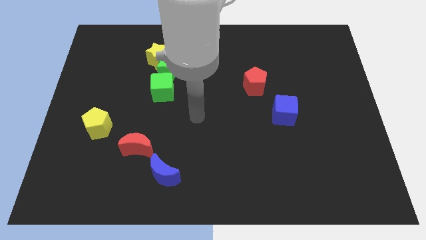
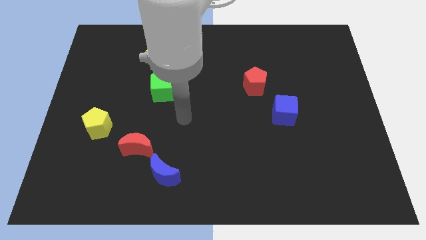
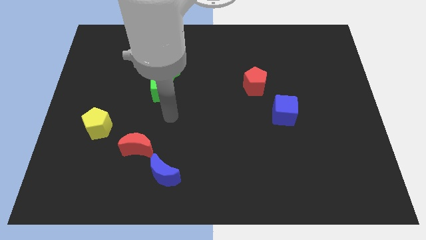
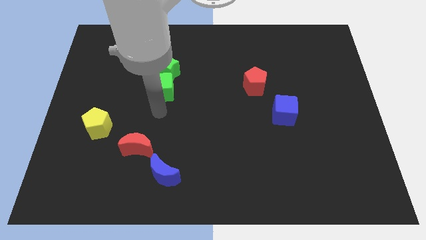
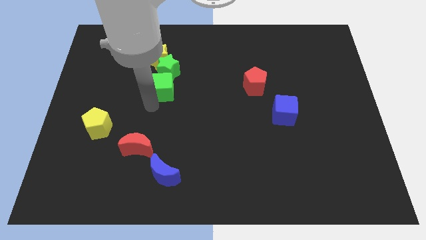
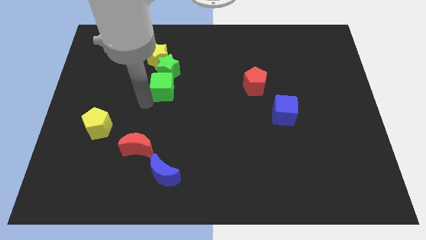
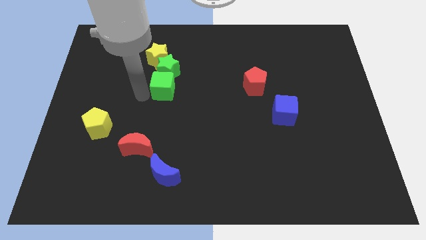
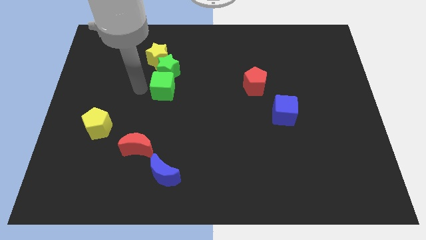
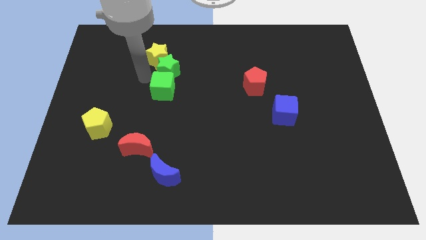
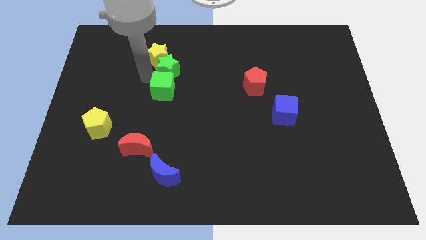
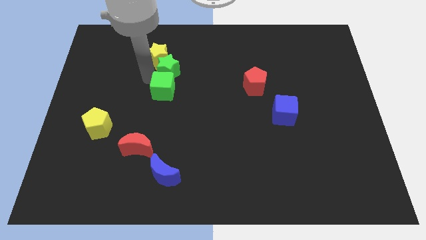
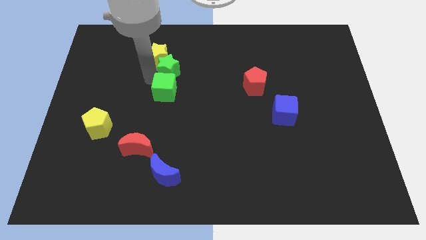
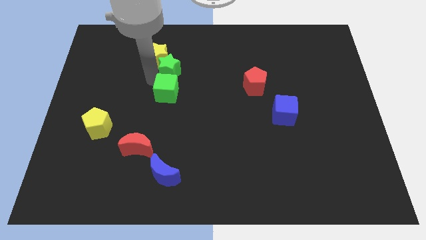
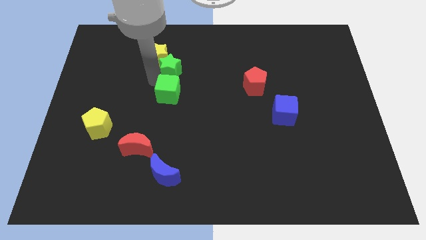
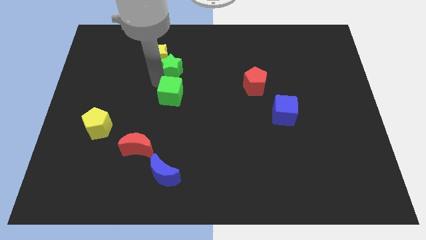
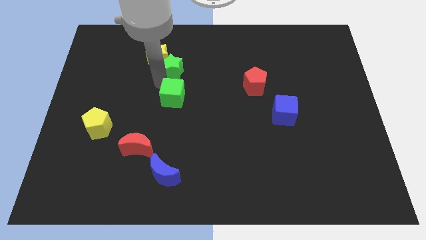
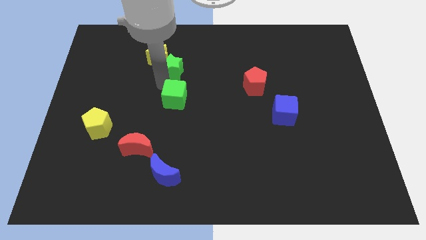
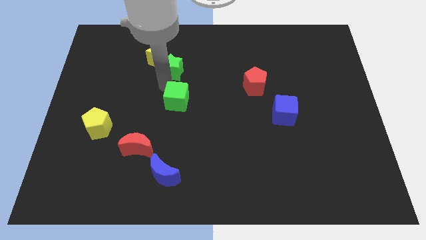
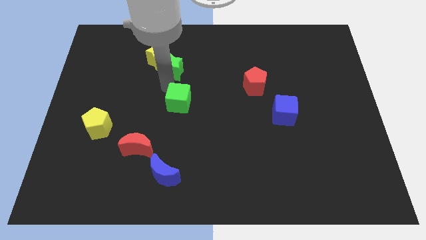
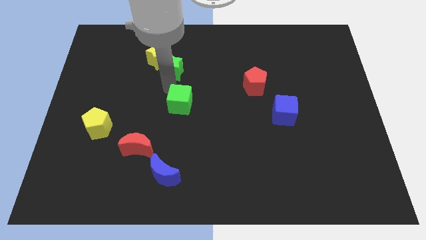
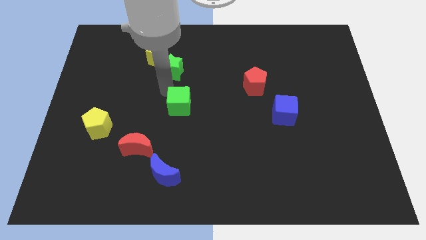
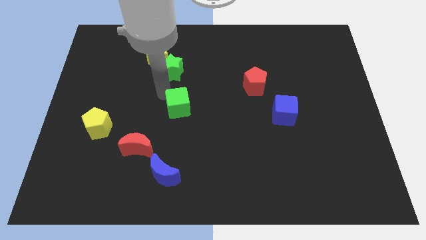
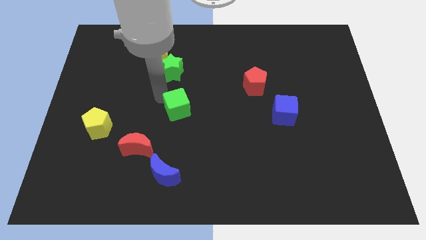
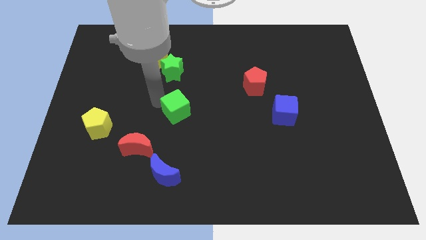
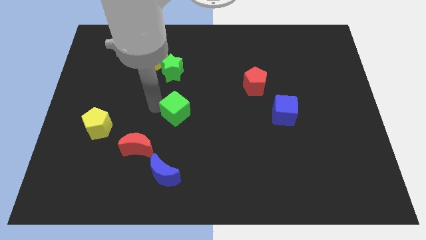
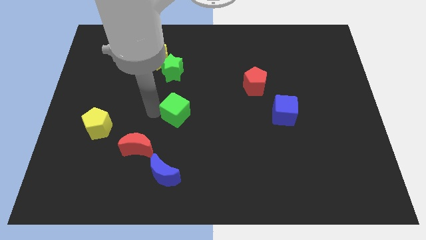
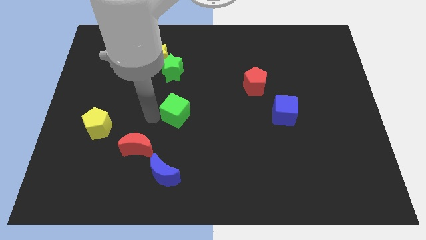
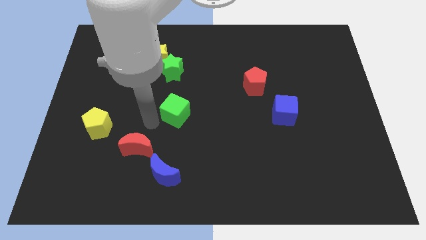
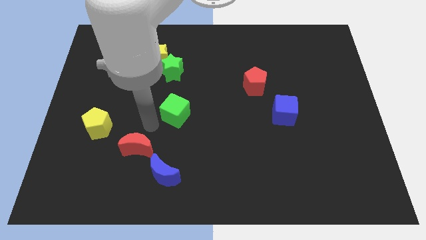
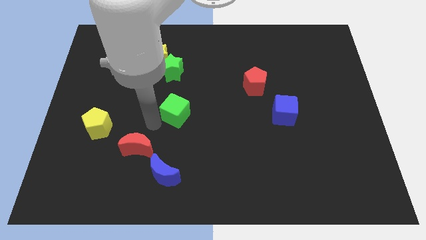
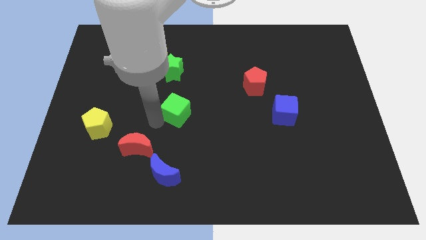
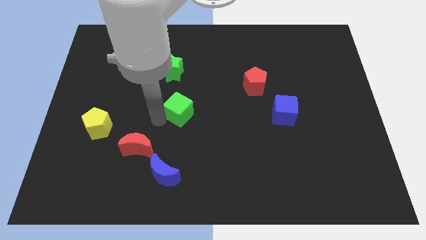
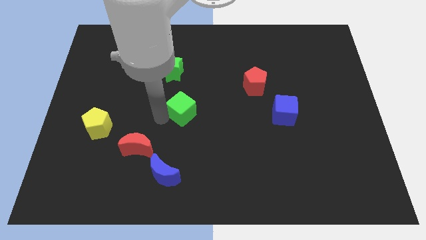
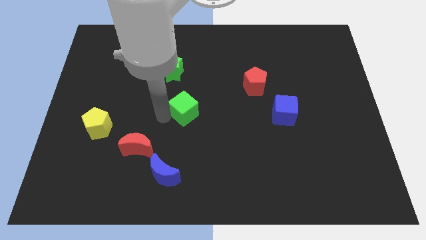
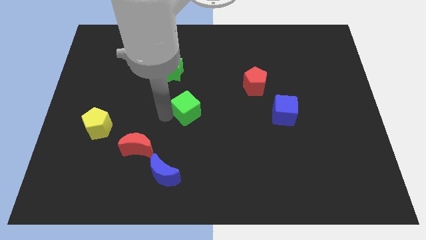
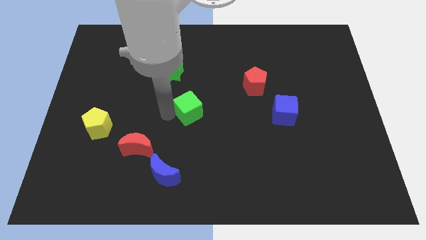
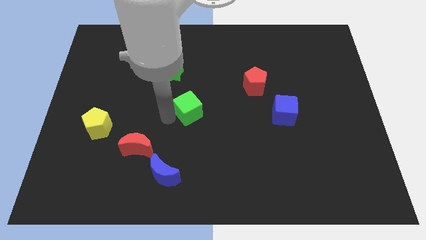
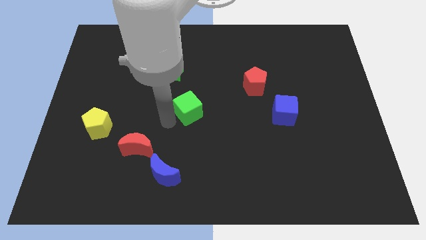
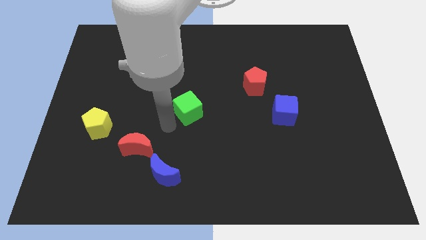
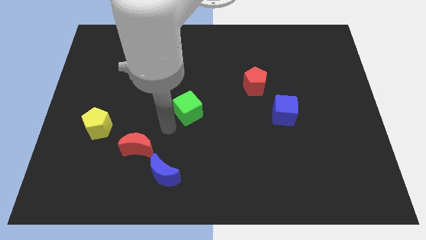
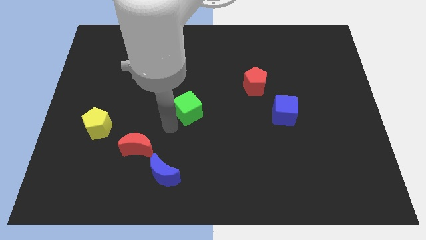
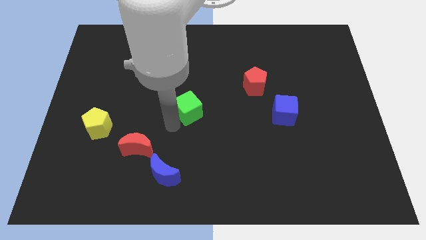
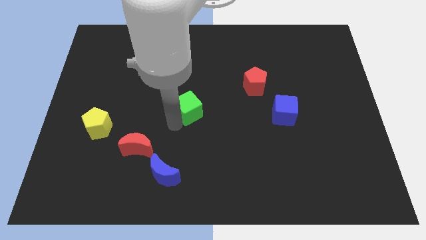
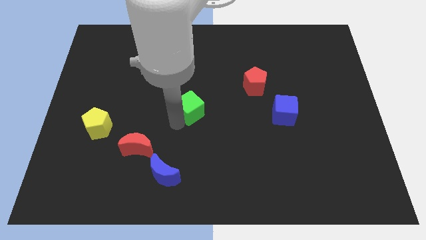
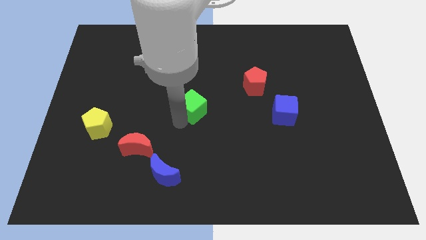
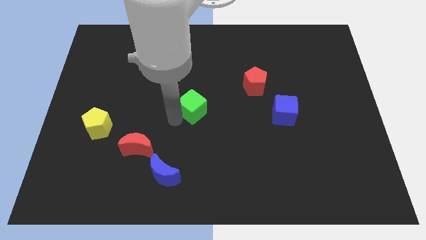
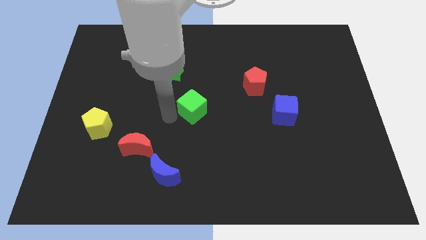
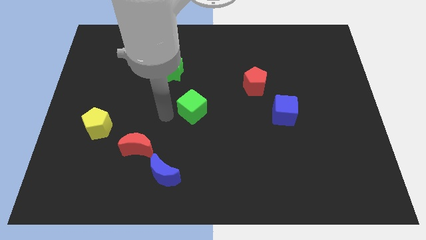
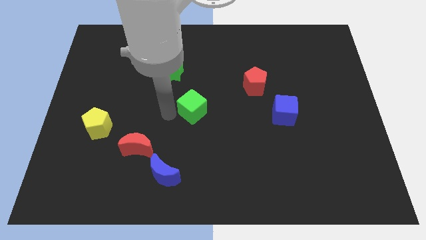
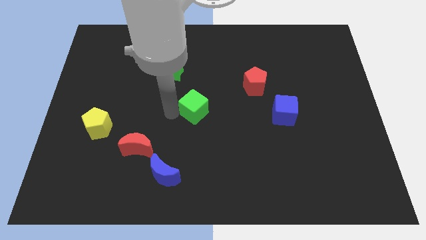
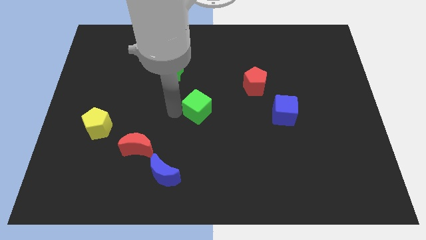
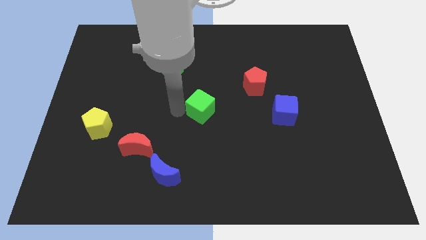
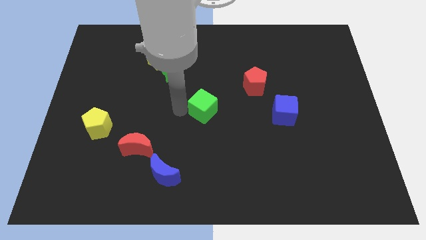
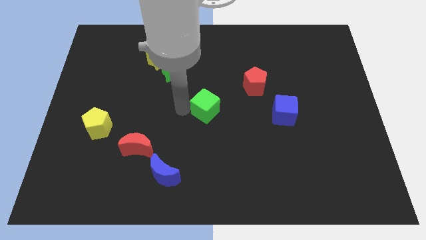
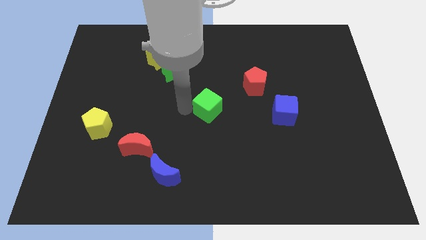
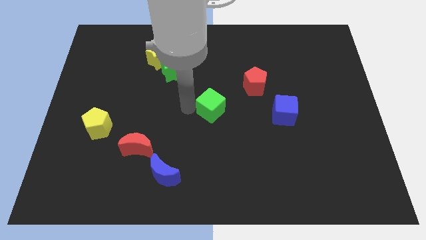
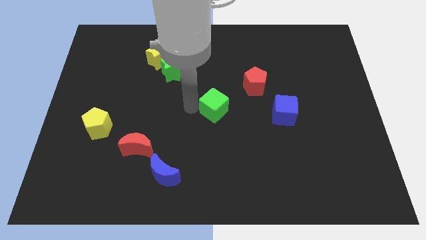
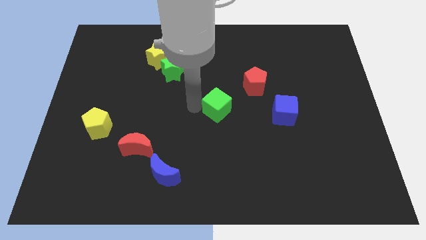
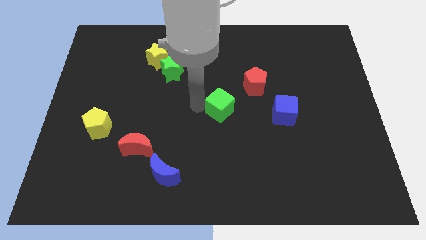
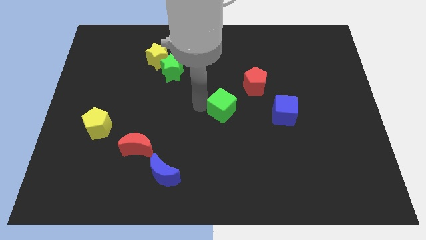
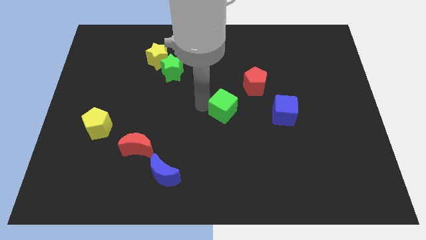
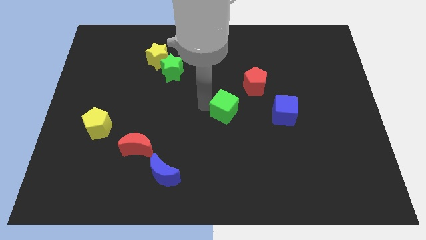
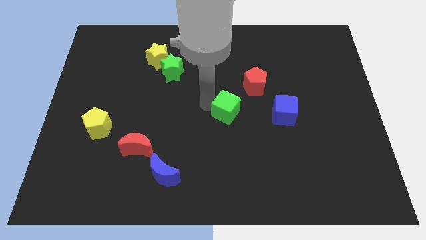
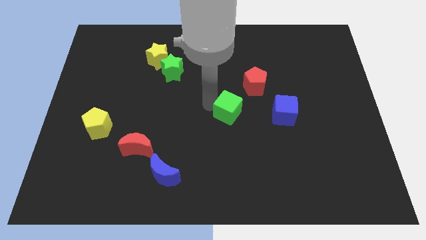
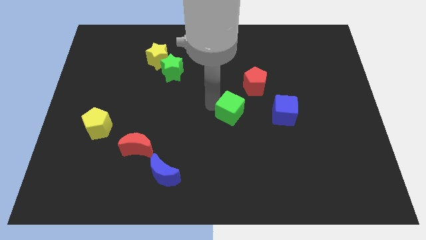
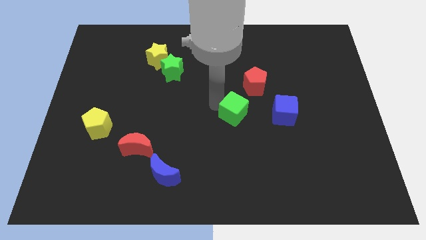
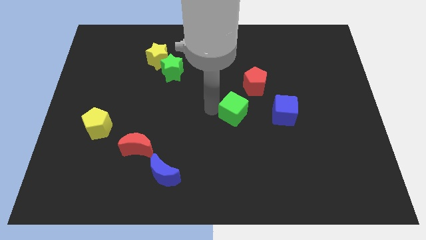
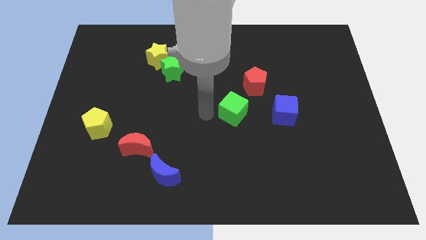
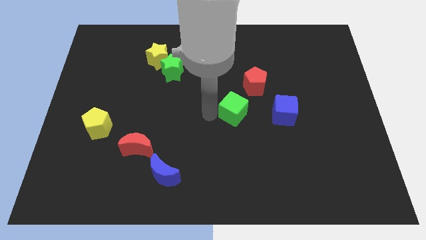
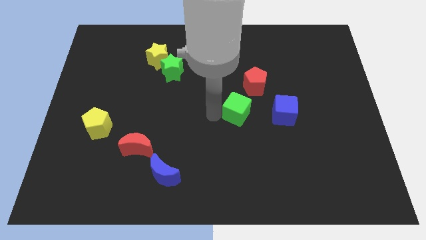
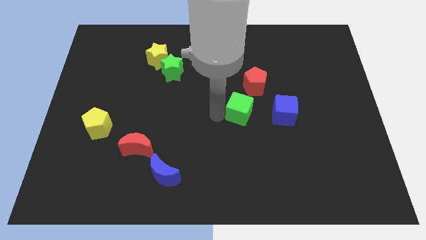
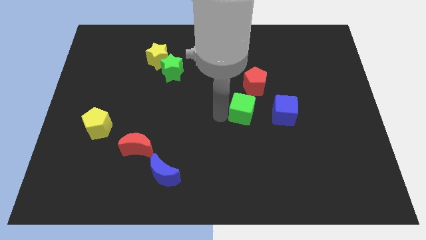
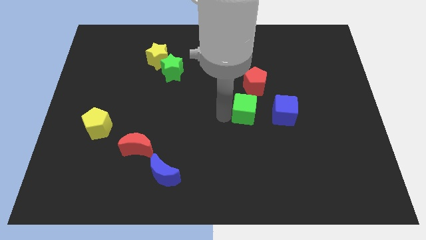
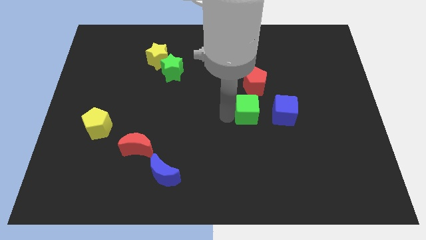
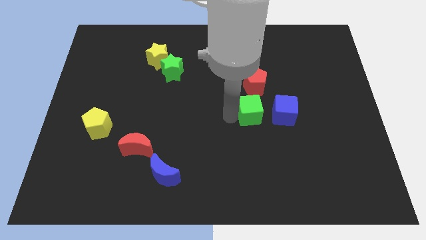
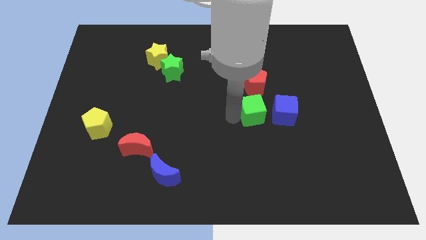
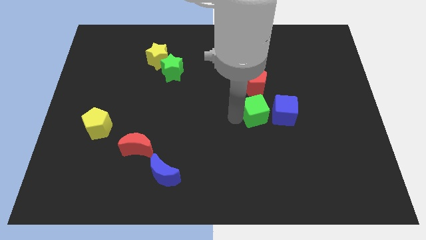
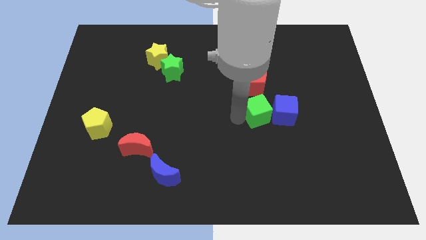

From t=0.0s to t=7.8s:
put the green cube to the blue cube
